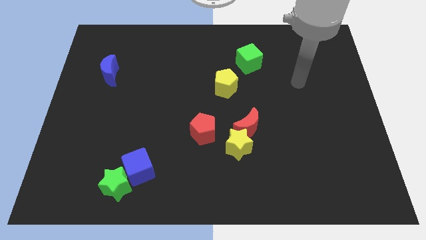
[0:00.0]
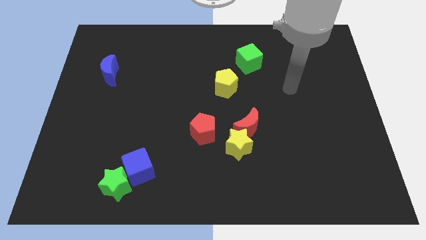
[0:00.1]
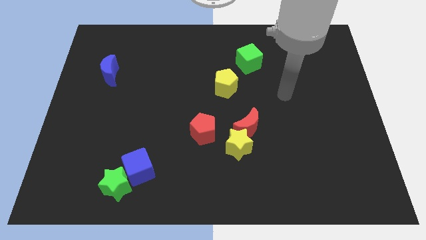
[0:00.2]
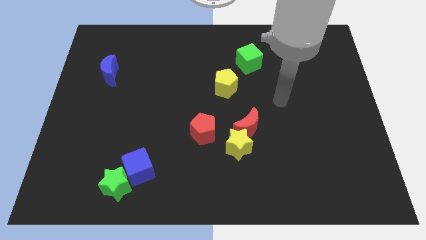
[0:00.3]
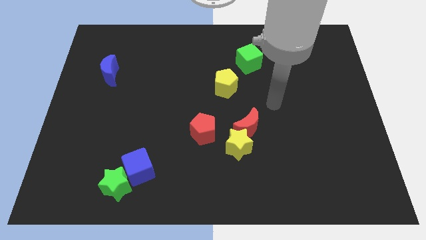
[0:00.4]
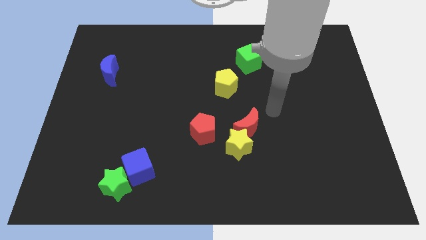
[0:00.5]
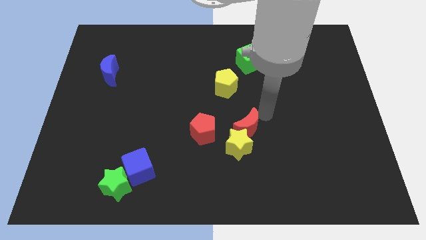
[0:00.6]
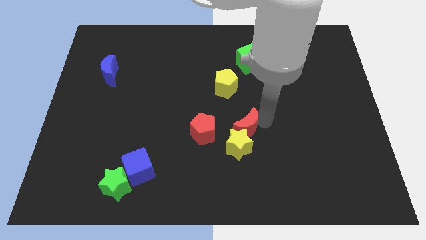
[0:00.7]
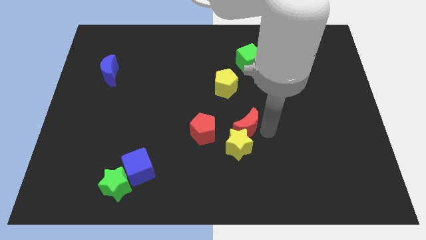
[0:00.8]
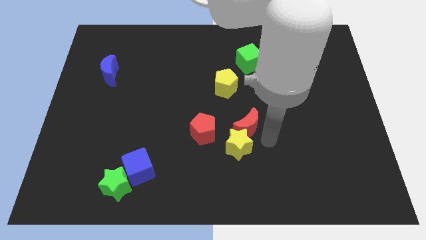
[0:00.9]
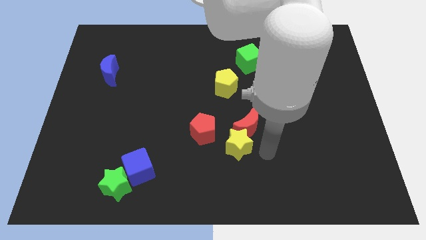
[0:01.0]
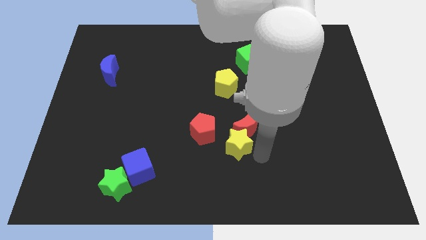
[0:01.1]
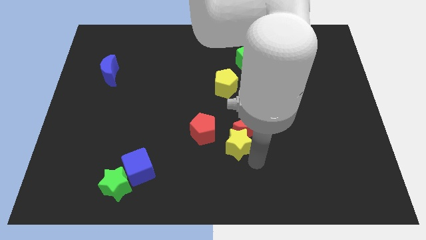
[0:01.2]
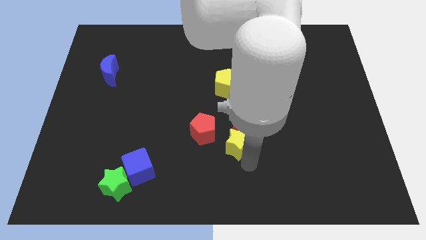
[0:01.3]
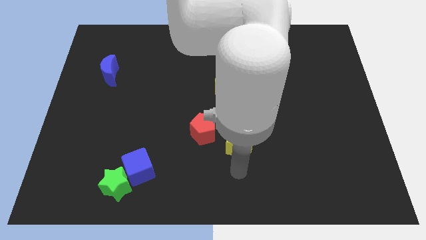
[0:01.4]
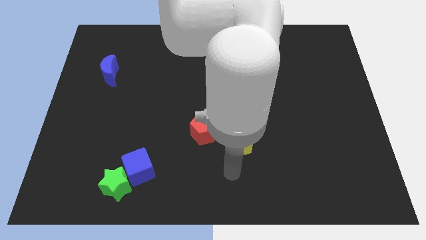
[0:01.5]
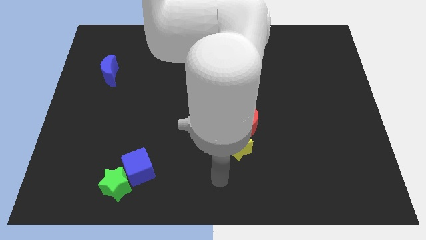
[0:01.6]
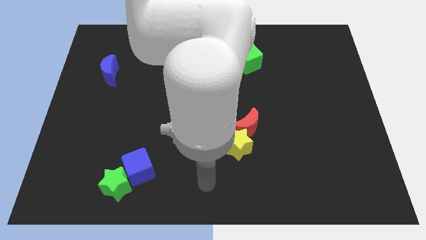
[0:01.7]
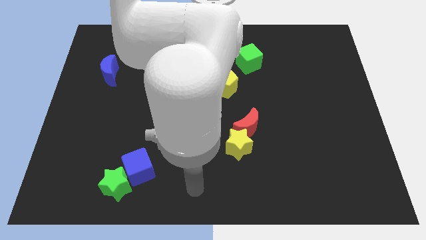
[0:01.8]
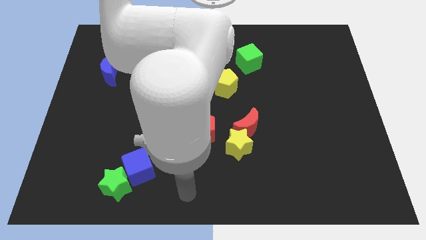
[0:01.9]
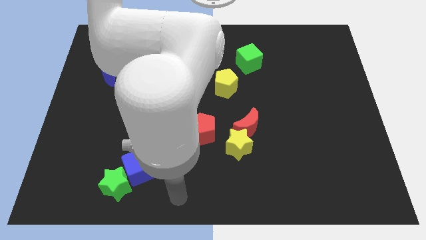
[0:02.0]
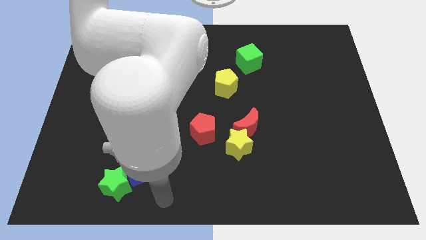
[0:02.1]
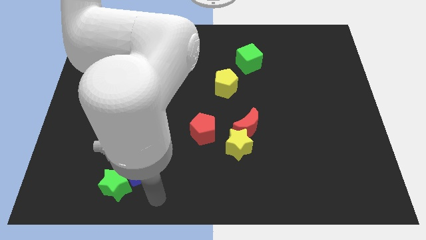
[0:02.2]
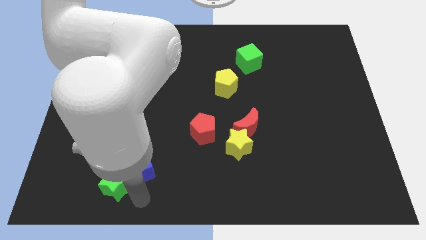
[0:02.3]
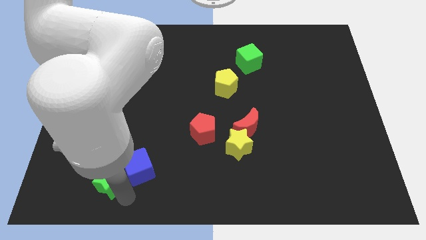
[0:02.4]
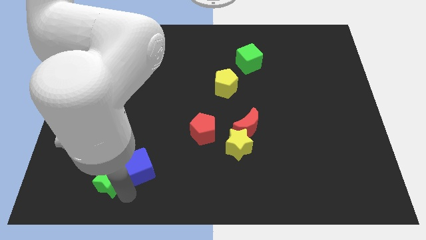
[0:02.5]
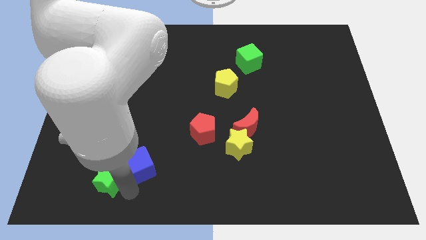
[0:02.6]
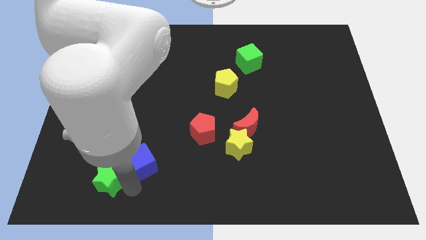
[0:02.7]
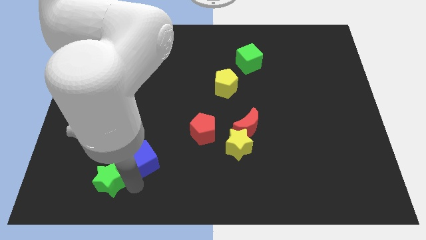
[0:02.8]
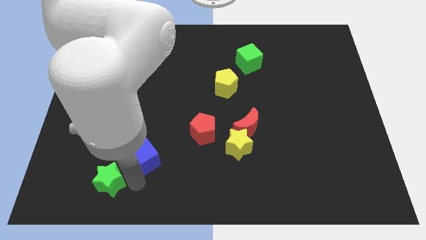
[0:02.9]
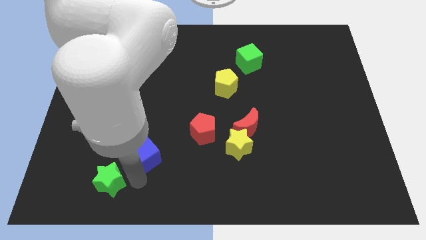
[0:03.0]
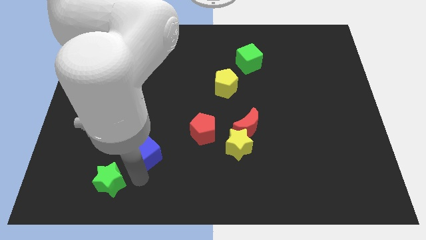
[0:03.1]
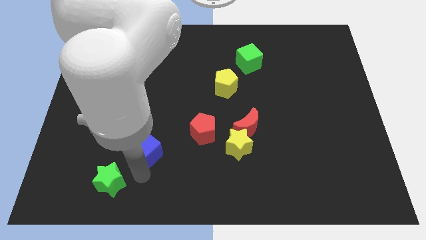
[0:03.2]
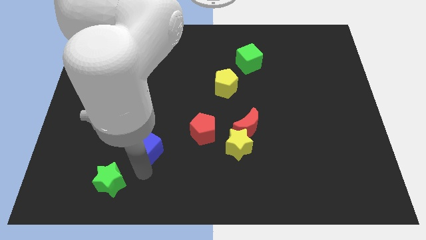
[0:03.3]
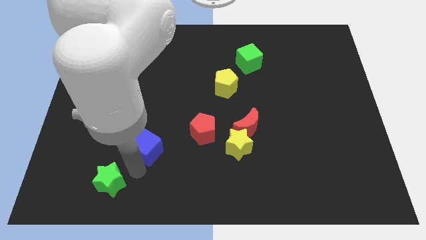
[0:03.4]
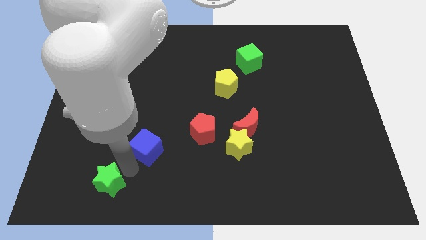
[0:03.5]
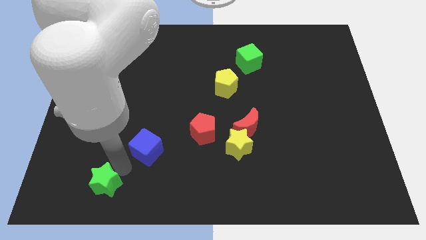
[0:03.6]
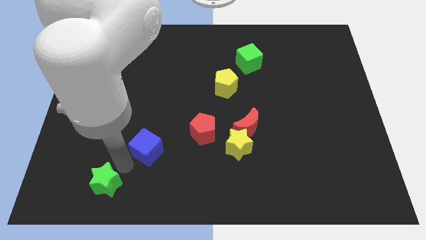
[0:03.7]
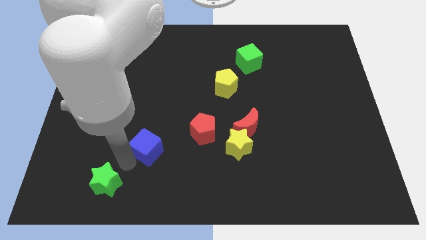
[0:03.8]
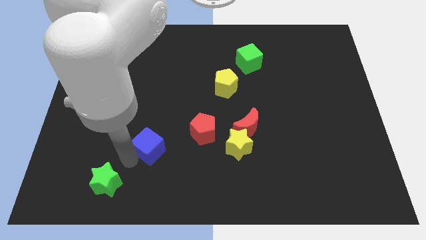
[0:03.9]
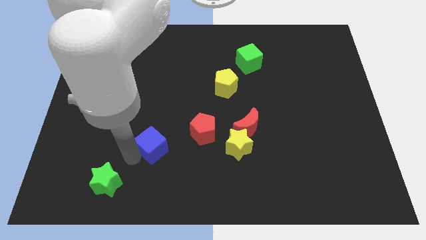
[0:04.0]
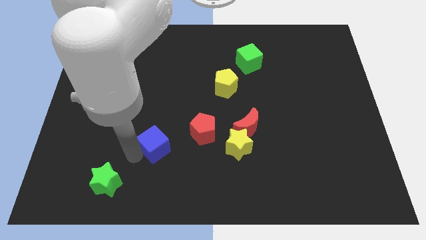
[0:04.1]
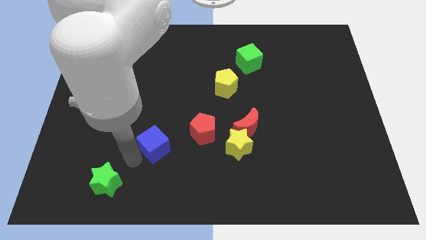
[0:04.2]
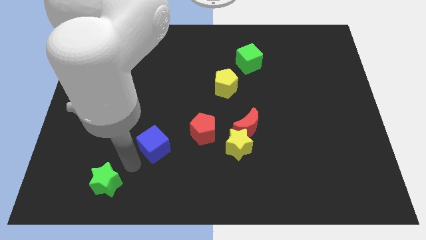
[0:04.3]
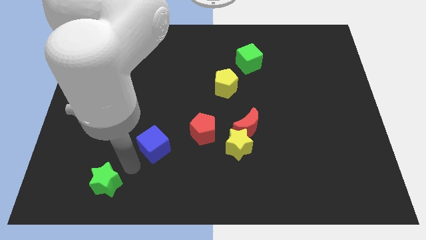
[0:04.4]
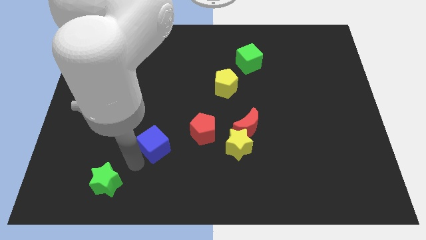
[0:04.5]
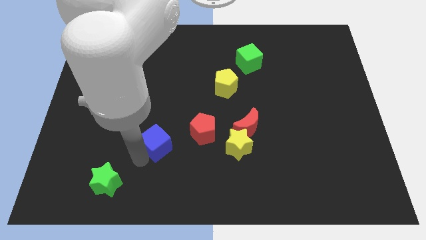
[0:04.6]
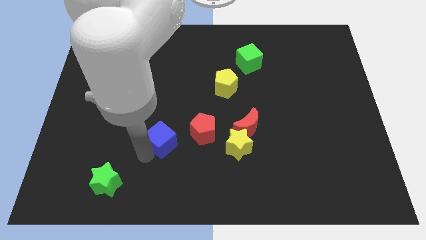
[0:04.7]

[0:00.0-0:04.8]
slightly push the blue cube upwards and to the right diagonally

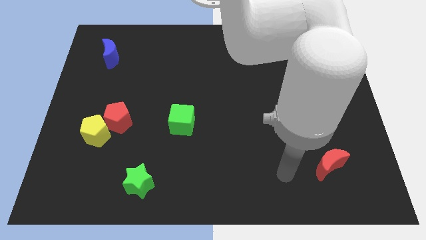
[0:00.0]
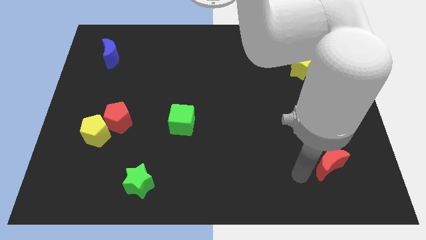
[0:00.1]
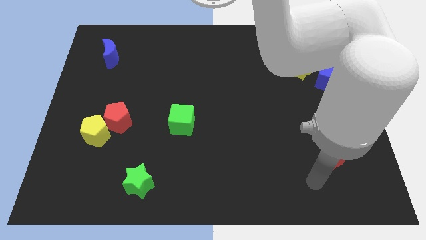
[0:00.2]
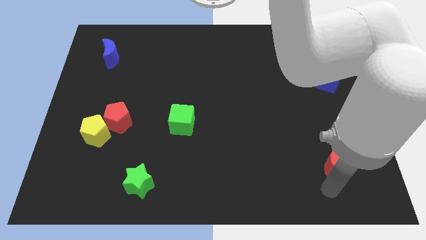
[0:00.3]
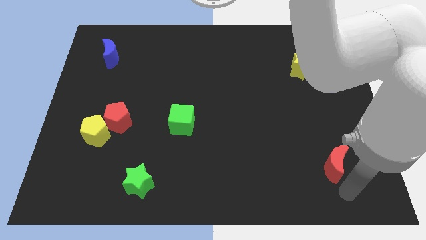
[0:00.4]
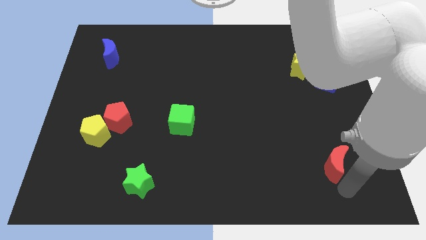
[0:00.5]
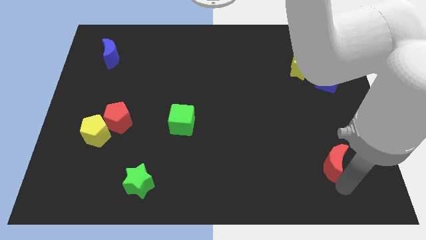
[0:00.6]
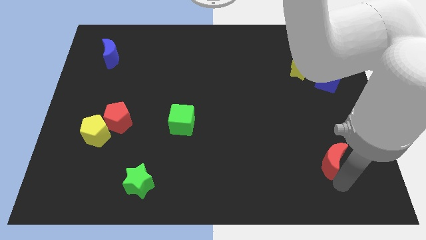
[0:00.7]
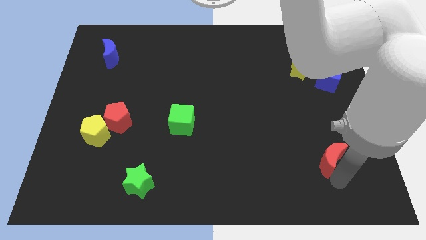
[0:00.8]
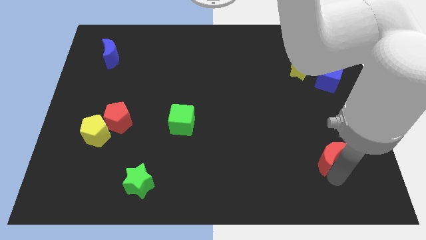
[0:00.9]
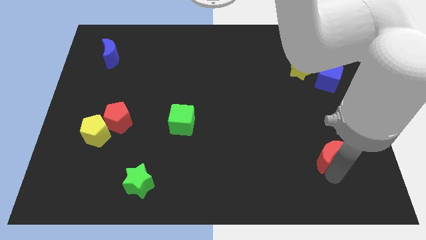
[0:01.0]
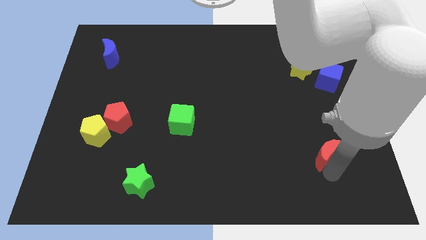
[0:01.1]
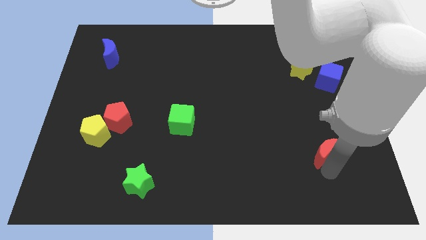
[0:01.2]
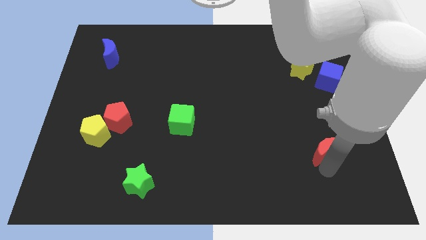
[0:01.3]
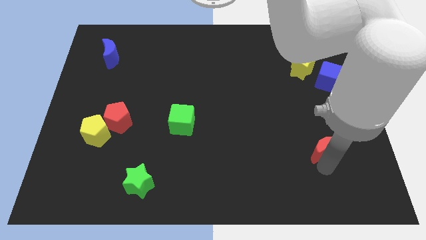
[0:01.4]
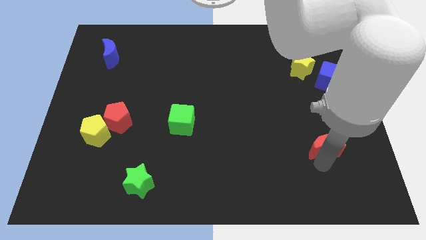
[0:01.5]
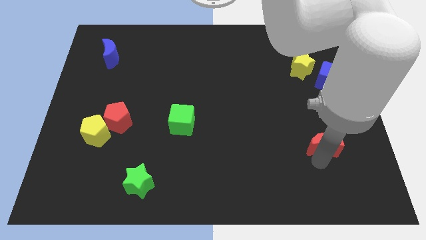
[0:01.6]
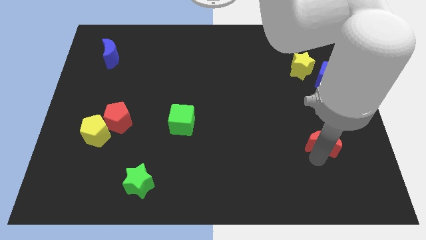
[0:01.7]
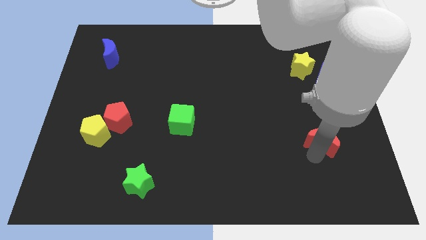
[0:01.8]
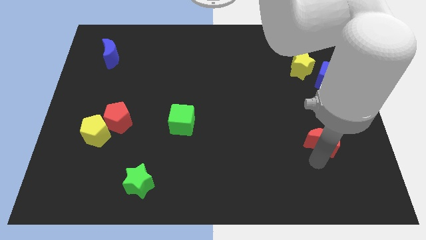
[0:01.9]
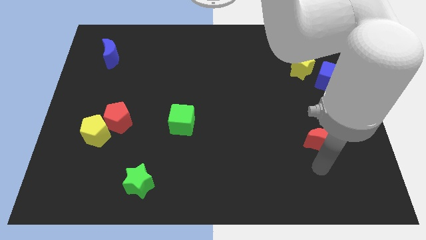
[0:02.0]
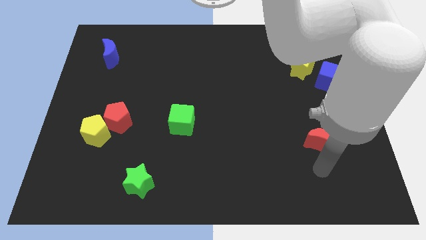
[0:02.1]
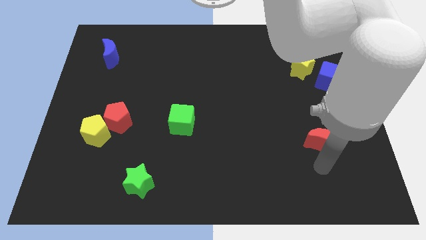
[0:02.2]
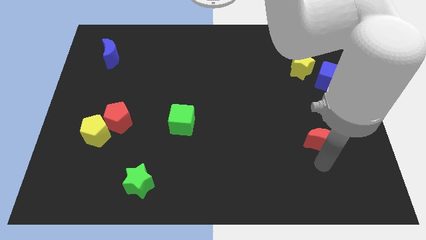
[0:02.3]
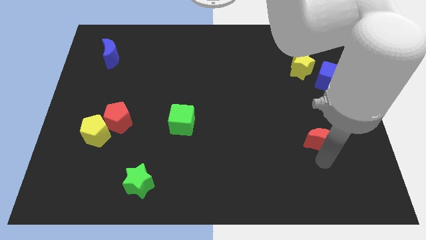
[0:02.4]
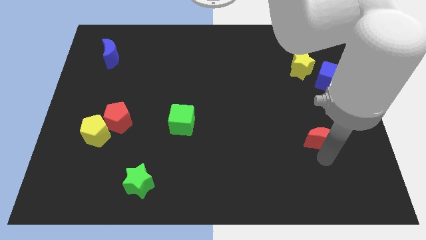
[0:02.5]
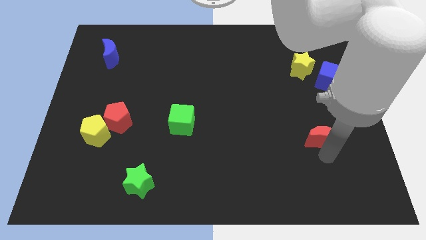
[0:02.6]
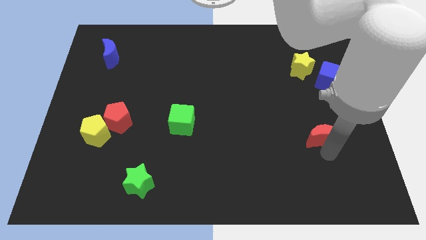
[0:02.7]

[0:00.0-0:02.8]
move the red moon slightly up

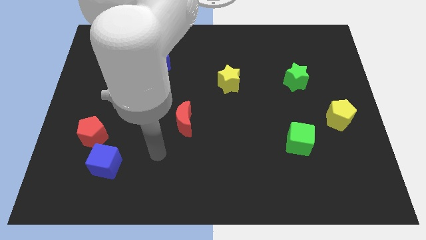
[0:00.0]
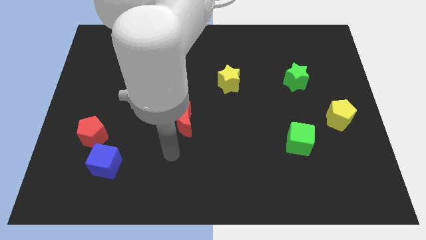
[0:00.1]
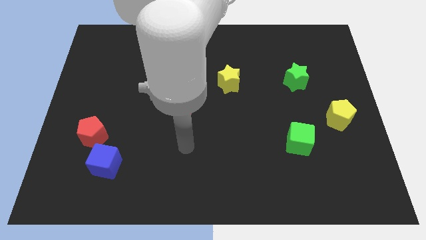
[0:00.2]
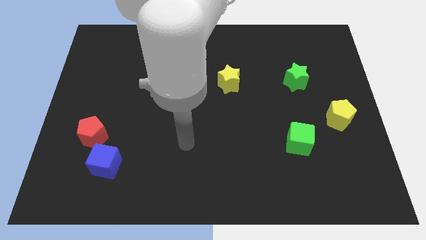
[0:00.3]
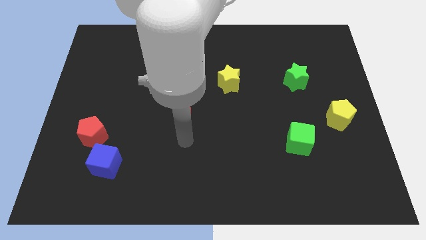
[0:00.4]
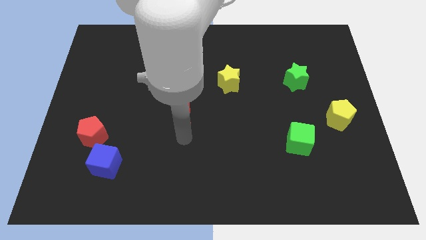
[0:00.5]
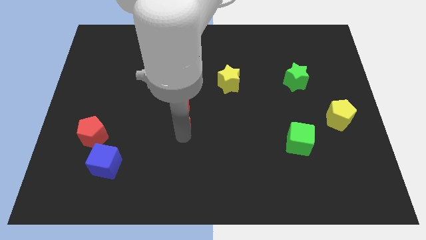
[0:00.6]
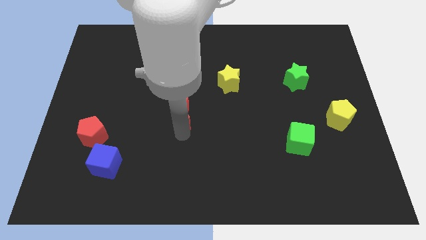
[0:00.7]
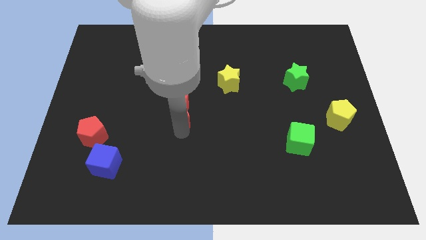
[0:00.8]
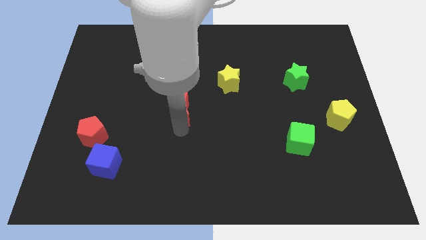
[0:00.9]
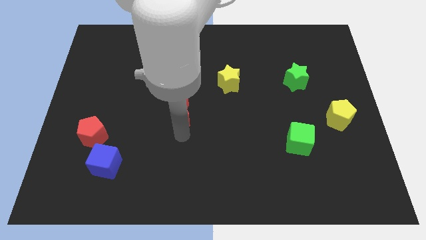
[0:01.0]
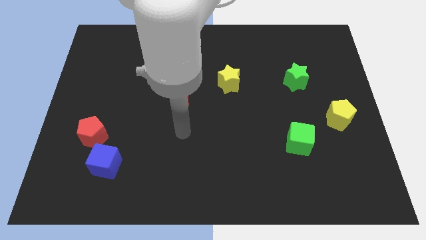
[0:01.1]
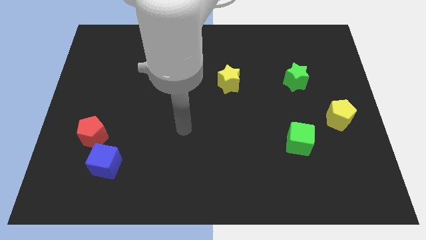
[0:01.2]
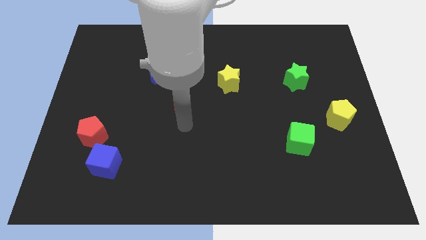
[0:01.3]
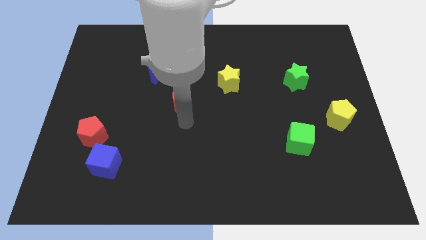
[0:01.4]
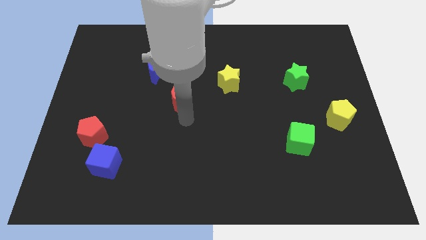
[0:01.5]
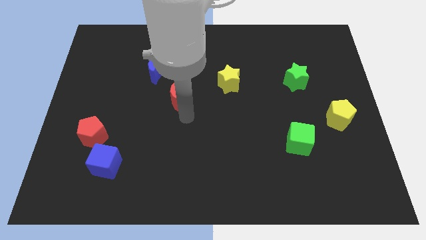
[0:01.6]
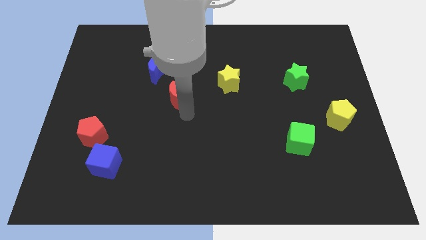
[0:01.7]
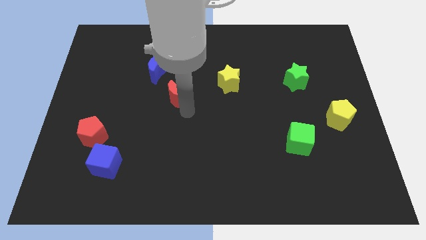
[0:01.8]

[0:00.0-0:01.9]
slightly slide the red moon up
